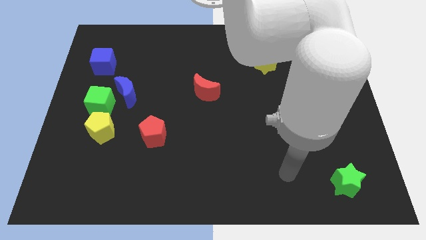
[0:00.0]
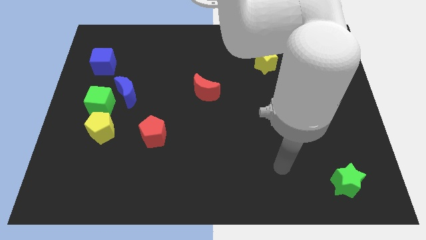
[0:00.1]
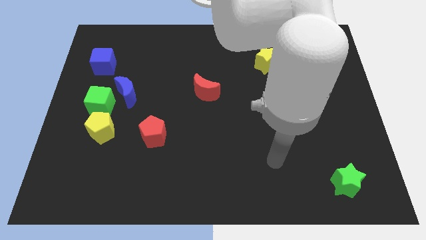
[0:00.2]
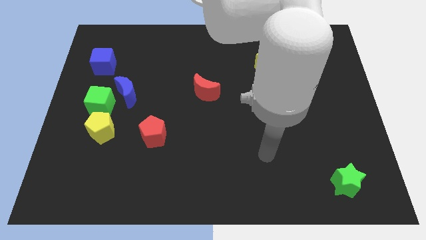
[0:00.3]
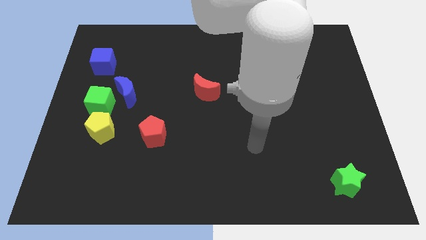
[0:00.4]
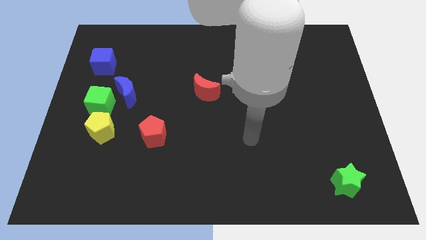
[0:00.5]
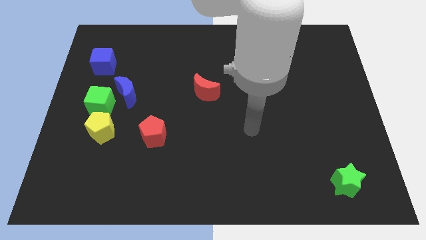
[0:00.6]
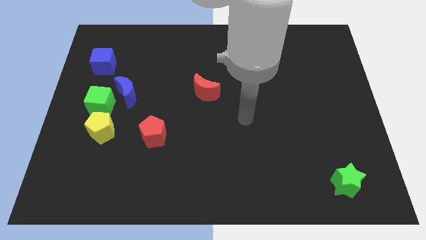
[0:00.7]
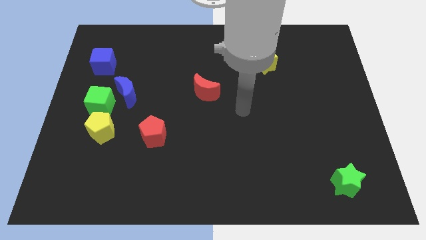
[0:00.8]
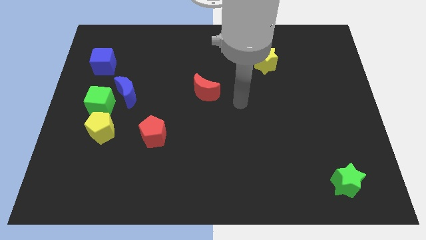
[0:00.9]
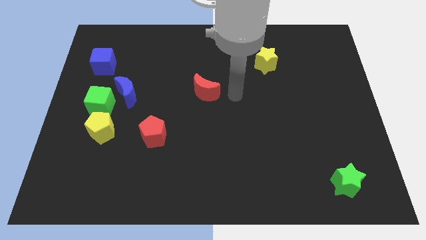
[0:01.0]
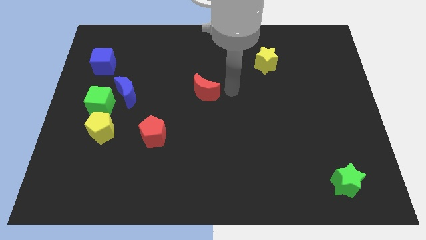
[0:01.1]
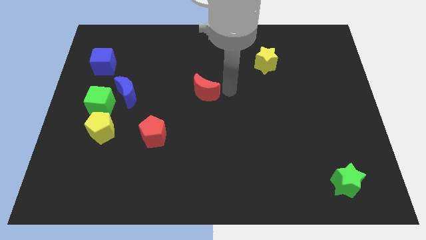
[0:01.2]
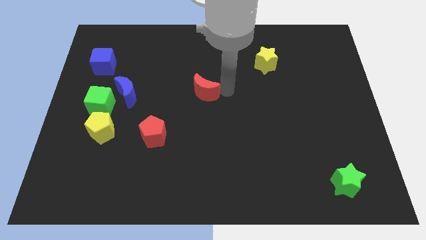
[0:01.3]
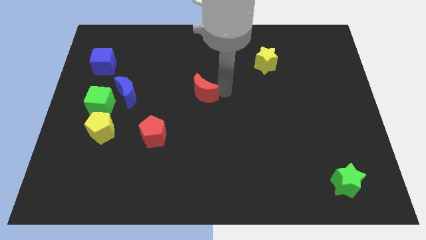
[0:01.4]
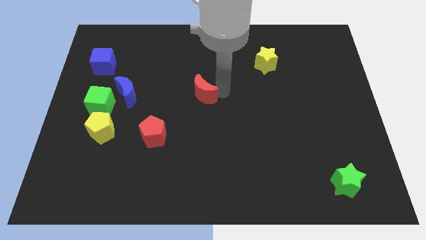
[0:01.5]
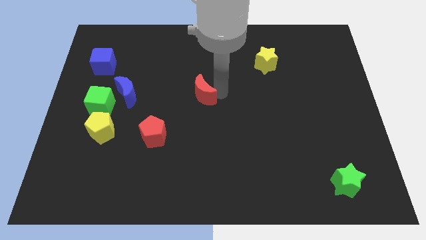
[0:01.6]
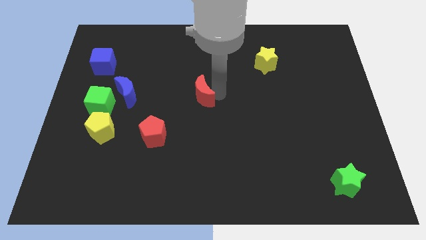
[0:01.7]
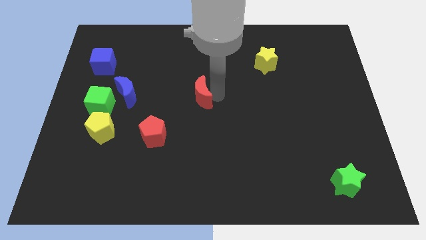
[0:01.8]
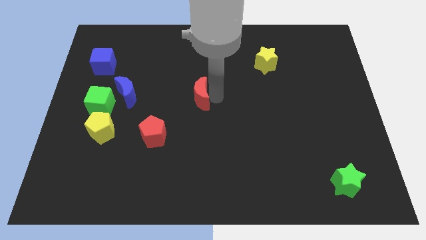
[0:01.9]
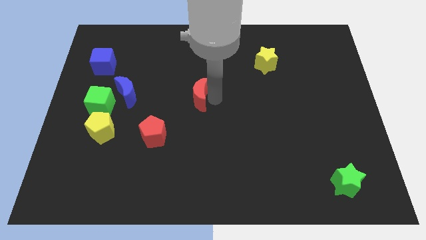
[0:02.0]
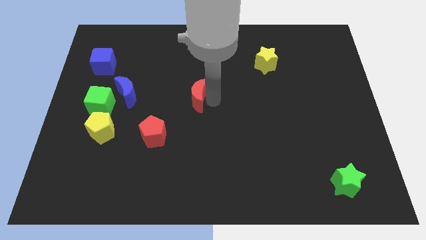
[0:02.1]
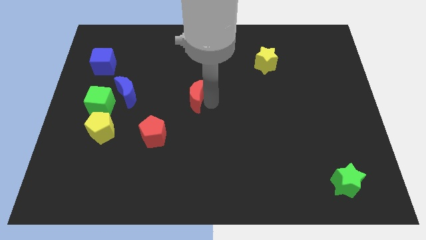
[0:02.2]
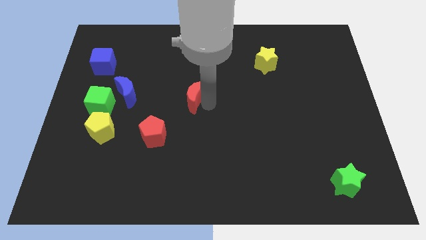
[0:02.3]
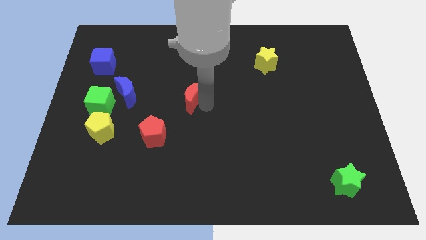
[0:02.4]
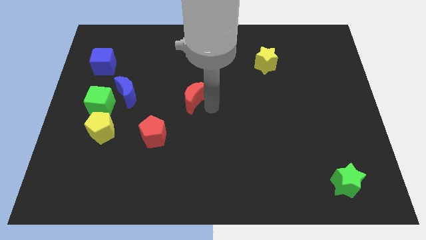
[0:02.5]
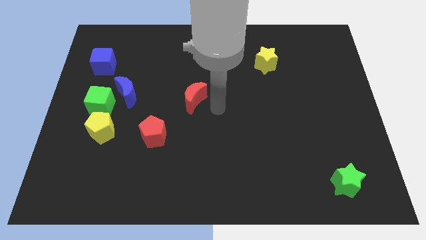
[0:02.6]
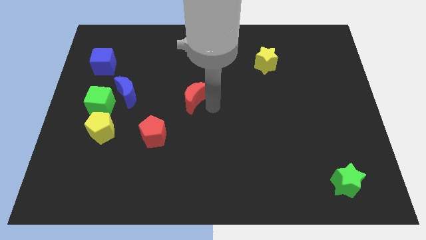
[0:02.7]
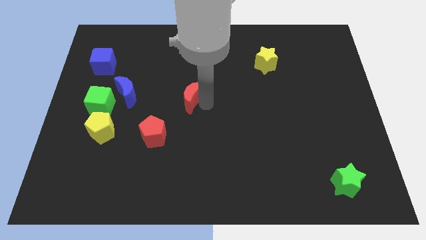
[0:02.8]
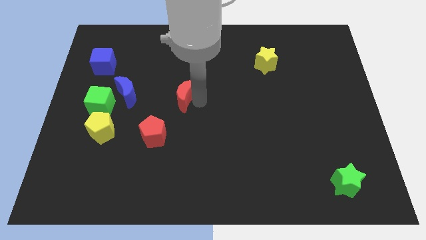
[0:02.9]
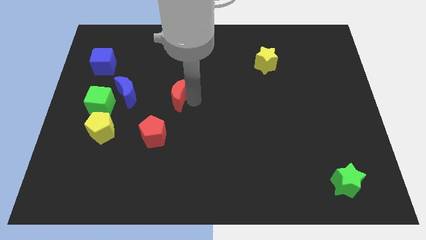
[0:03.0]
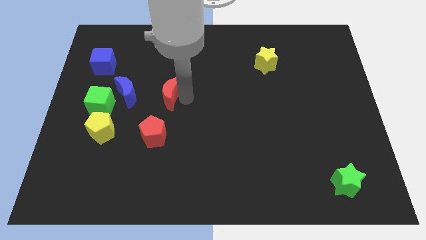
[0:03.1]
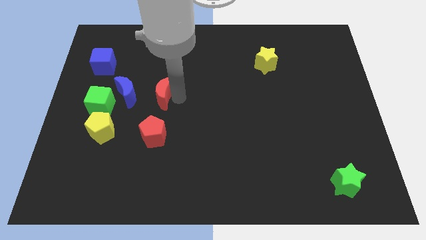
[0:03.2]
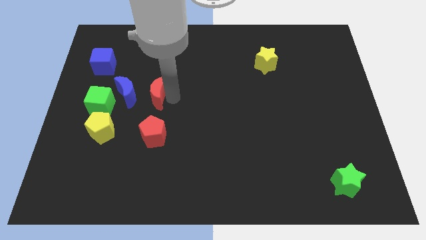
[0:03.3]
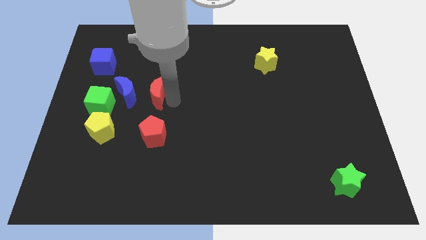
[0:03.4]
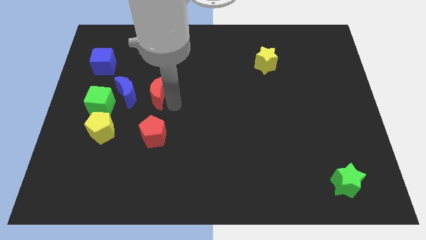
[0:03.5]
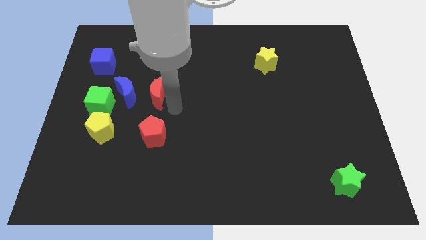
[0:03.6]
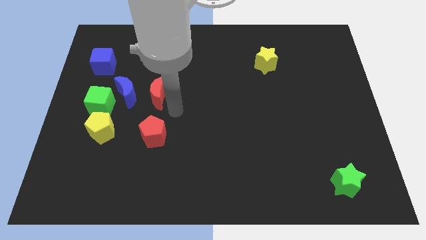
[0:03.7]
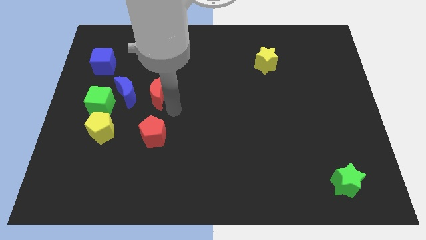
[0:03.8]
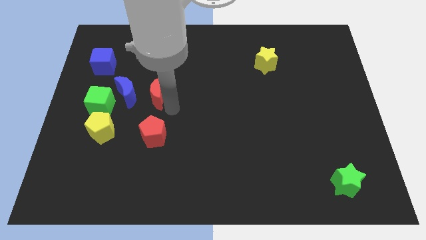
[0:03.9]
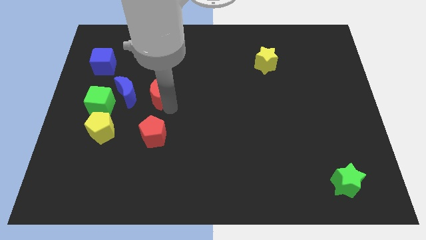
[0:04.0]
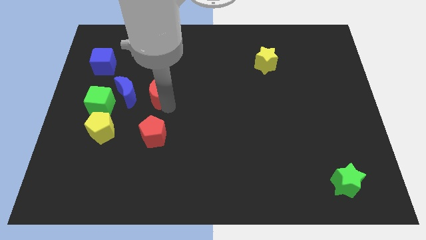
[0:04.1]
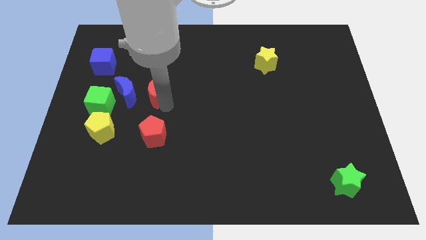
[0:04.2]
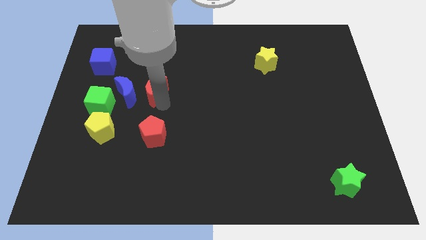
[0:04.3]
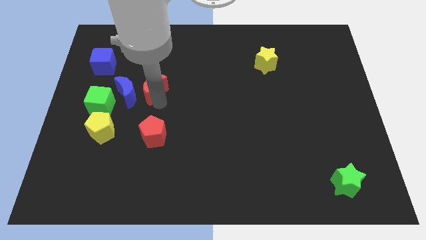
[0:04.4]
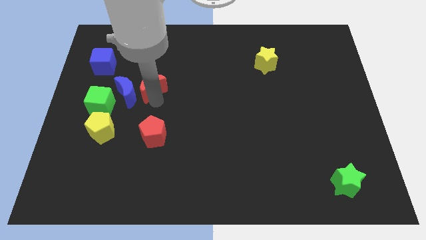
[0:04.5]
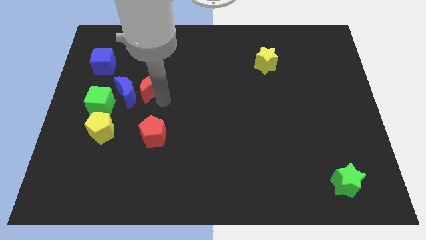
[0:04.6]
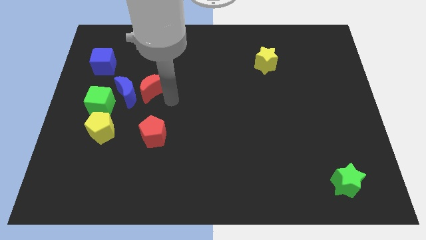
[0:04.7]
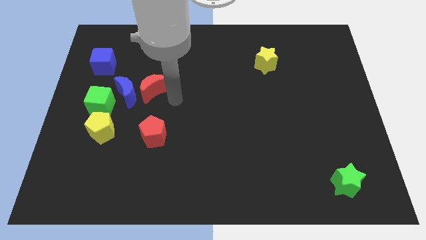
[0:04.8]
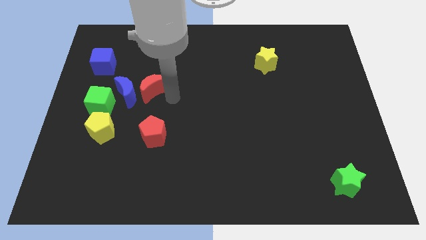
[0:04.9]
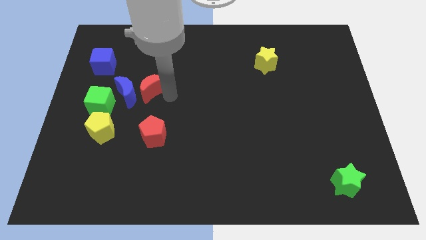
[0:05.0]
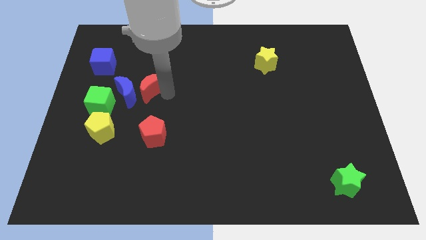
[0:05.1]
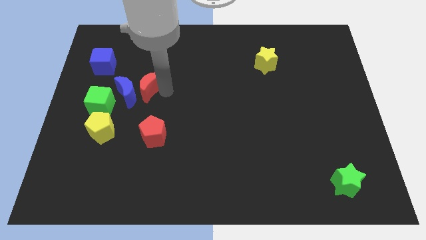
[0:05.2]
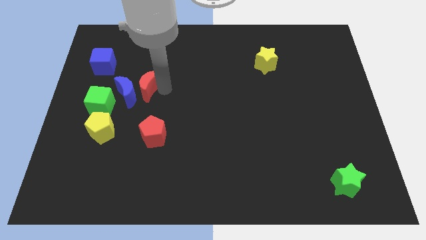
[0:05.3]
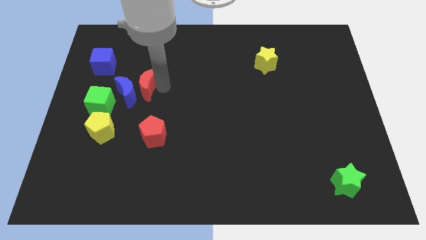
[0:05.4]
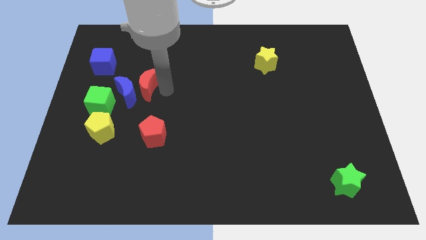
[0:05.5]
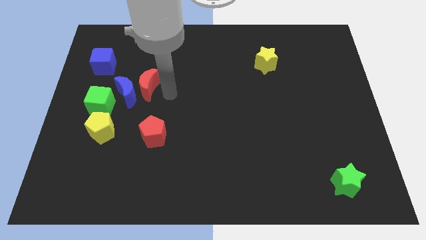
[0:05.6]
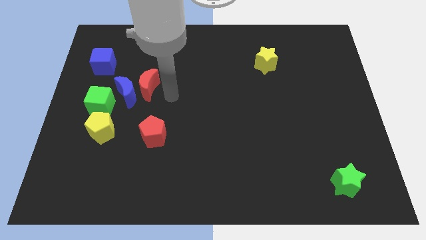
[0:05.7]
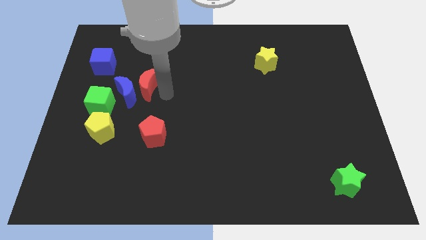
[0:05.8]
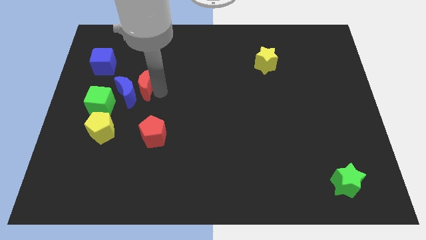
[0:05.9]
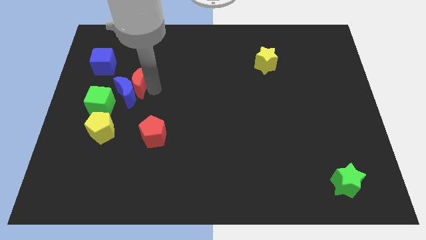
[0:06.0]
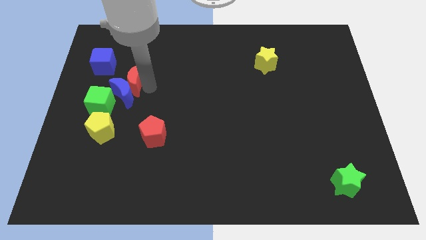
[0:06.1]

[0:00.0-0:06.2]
push the red moon to the top left of the blue moon

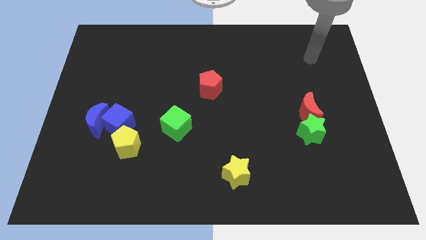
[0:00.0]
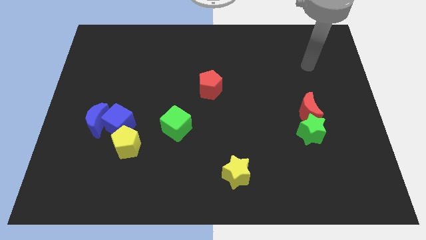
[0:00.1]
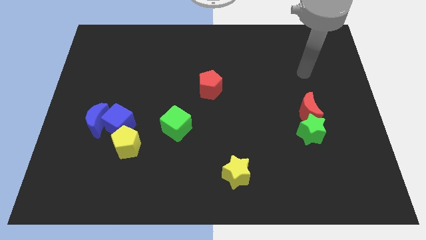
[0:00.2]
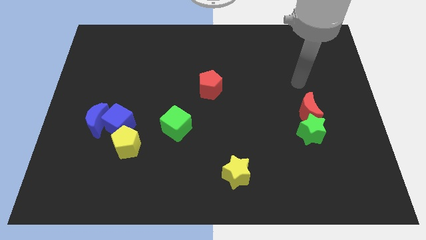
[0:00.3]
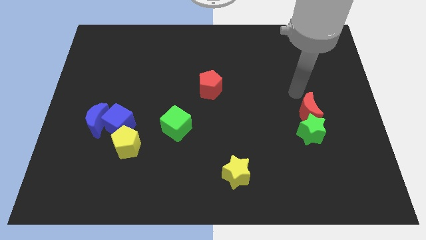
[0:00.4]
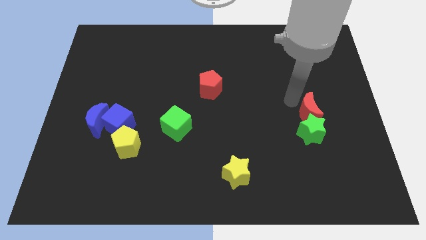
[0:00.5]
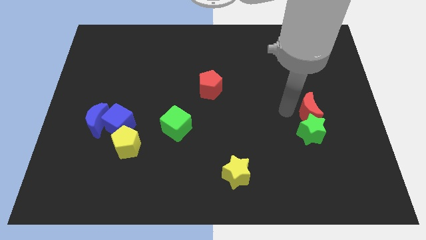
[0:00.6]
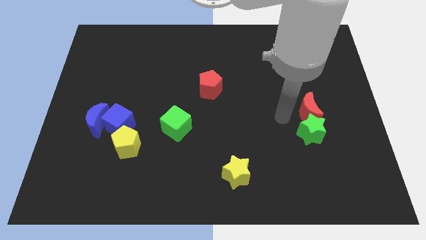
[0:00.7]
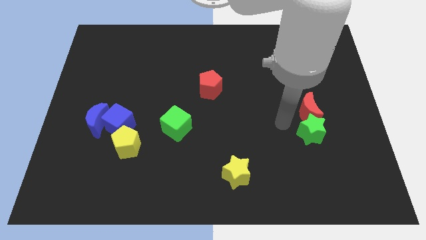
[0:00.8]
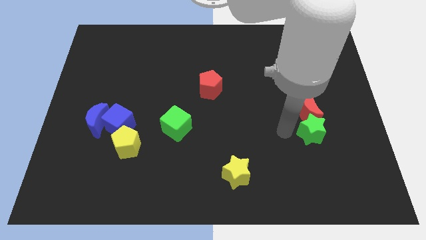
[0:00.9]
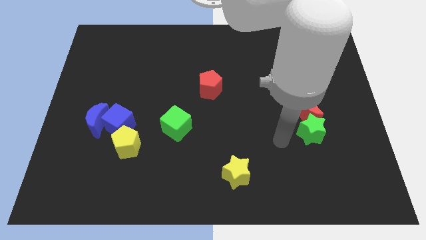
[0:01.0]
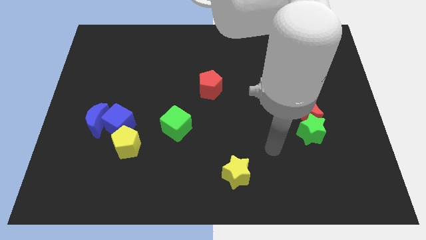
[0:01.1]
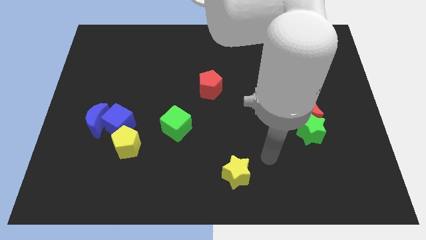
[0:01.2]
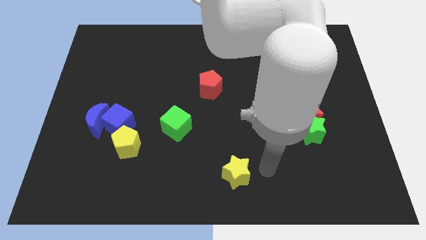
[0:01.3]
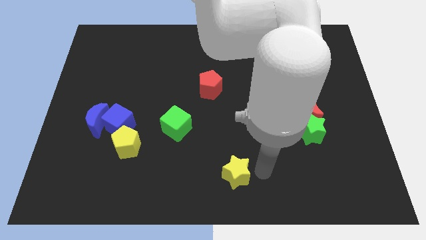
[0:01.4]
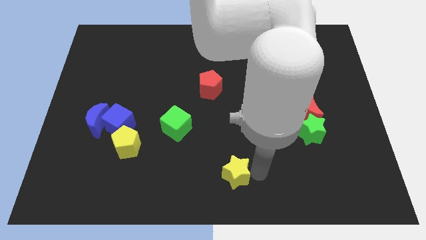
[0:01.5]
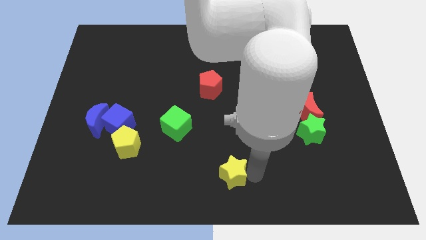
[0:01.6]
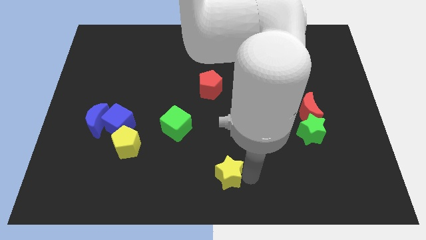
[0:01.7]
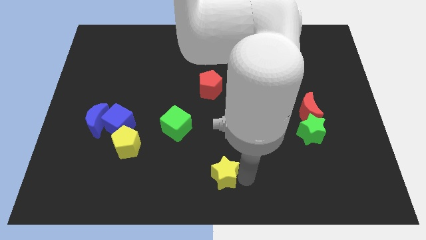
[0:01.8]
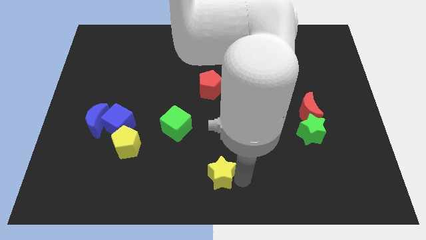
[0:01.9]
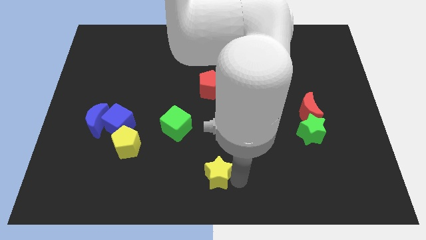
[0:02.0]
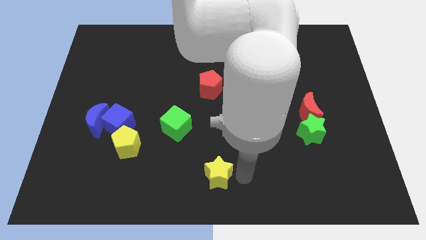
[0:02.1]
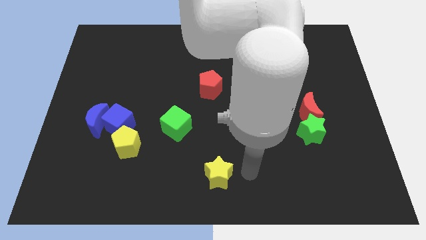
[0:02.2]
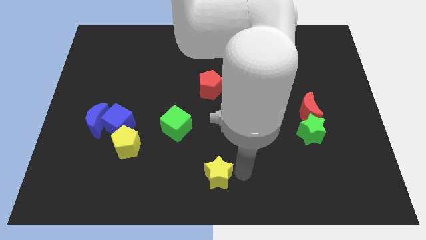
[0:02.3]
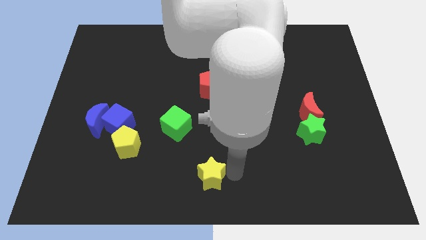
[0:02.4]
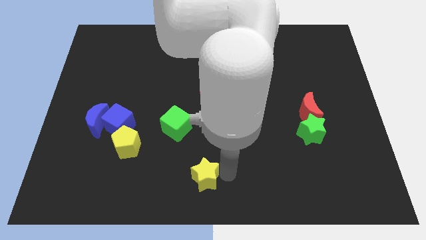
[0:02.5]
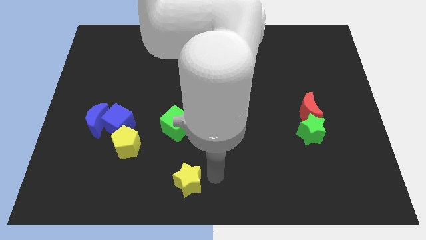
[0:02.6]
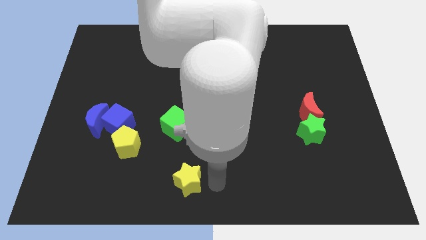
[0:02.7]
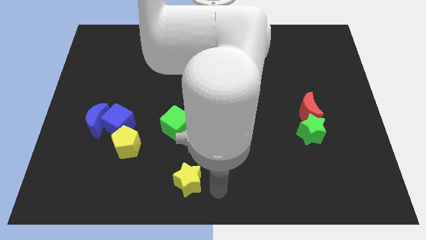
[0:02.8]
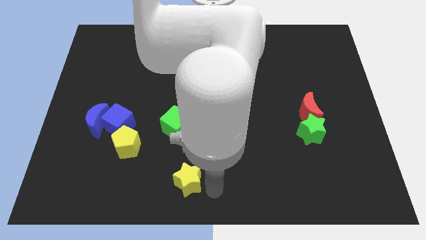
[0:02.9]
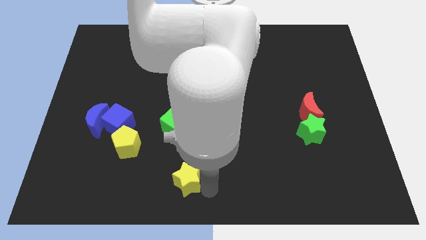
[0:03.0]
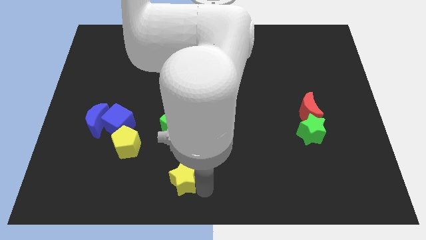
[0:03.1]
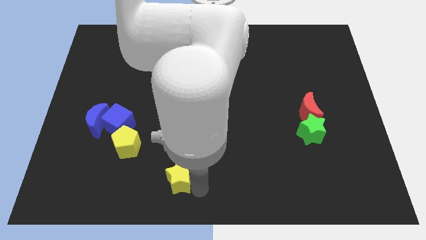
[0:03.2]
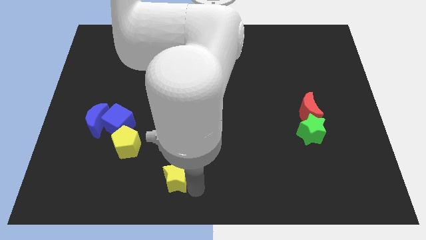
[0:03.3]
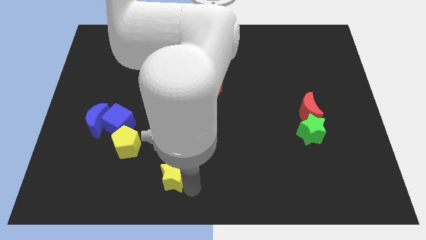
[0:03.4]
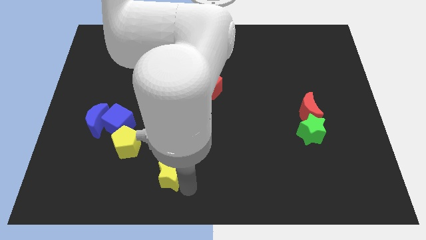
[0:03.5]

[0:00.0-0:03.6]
slide the yellow star to the bottom right of the yellow pentagon
